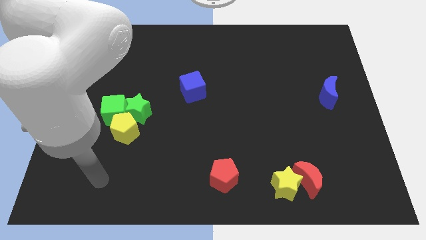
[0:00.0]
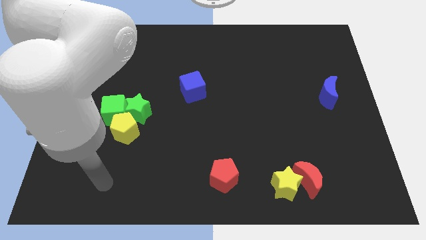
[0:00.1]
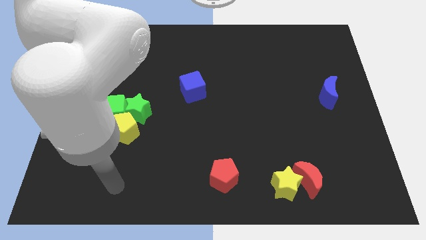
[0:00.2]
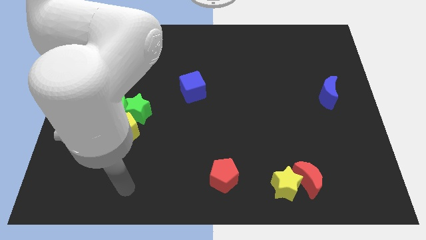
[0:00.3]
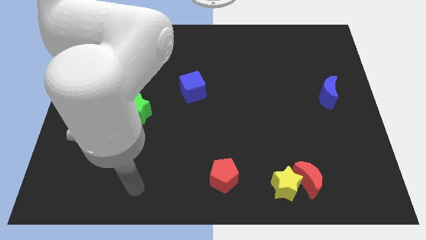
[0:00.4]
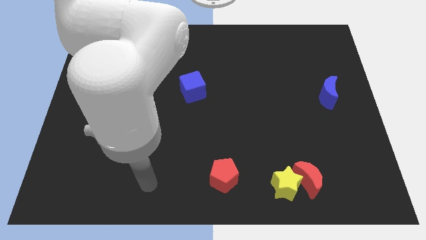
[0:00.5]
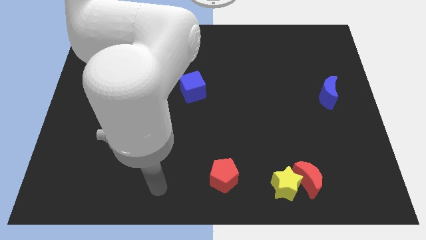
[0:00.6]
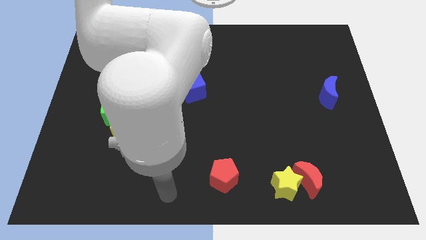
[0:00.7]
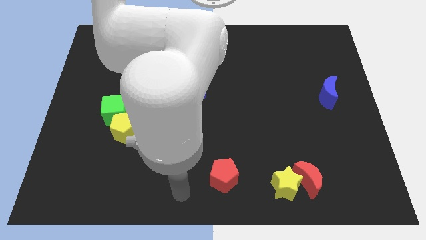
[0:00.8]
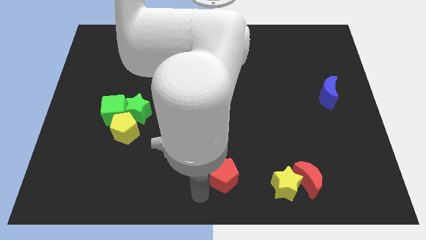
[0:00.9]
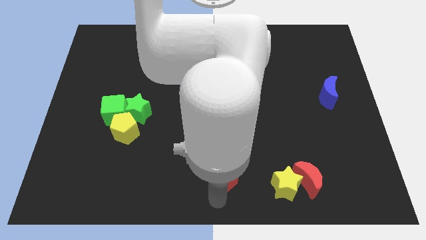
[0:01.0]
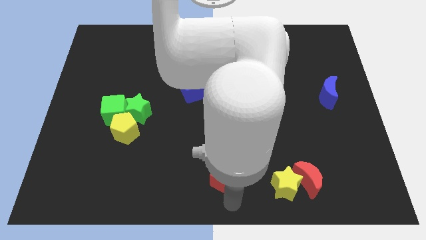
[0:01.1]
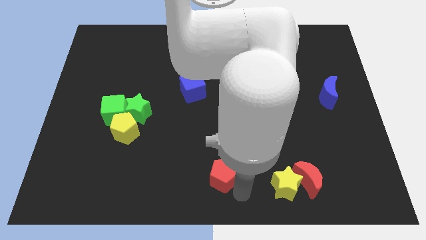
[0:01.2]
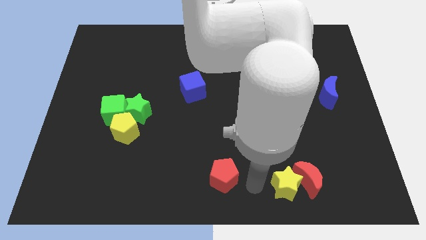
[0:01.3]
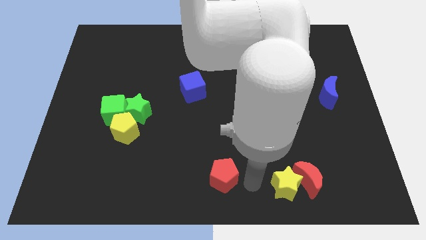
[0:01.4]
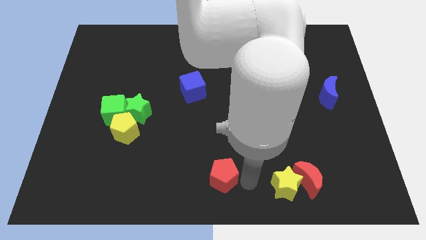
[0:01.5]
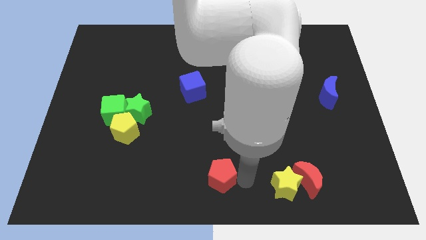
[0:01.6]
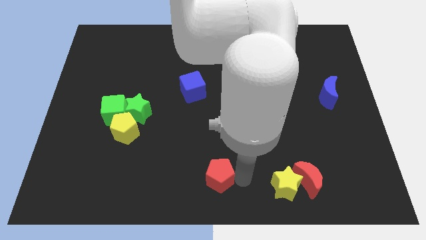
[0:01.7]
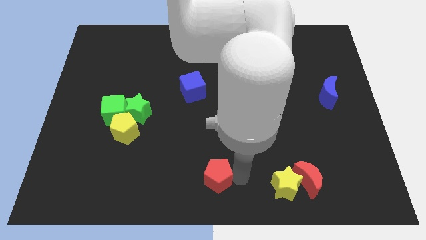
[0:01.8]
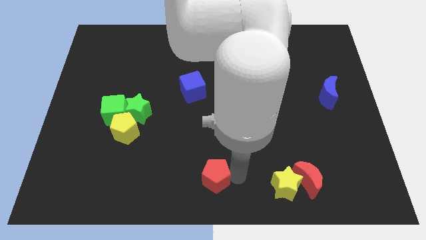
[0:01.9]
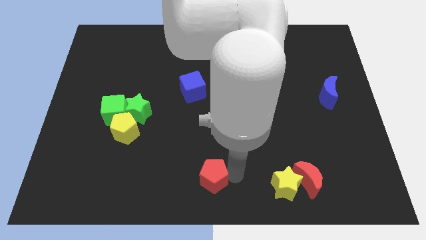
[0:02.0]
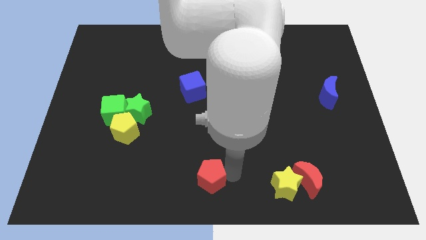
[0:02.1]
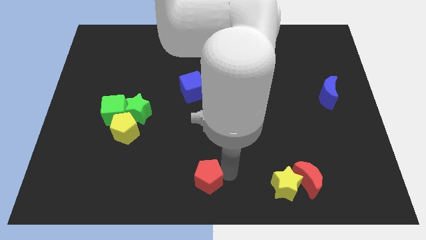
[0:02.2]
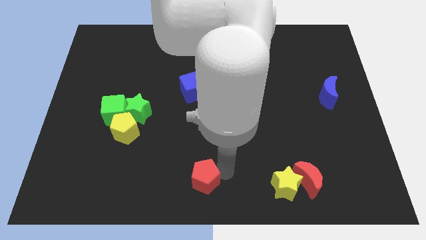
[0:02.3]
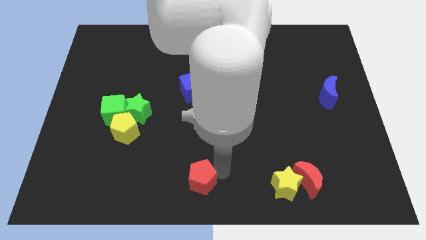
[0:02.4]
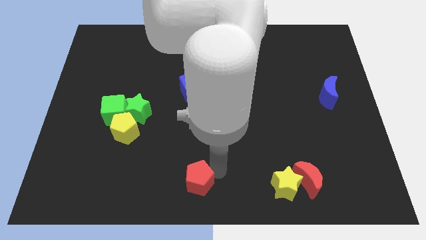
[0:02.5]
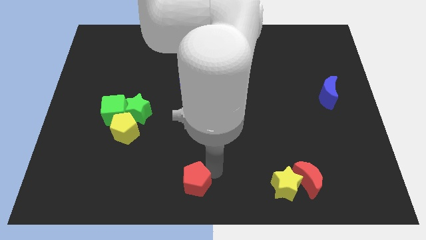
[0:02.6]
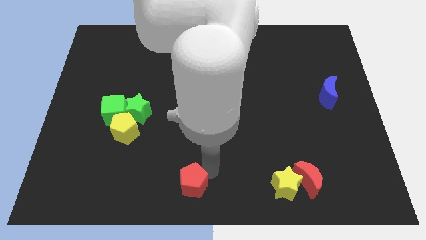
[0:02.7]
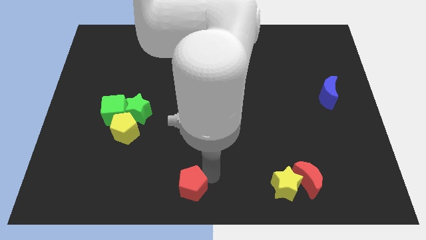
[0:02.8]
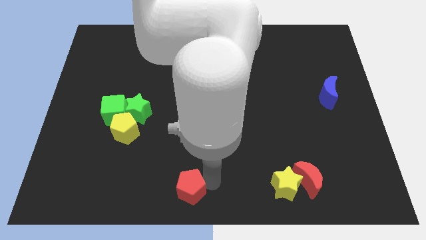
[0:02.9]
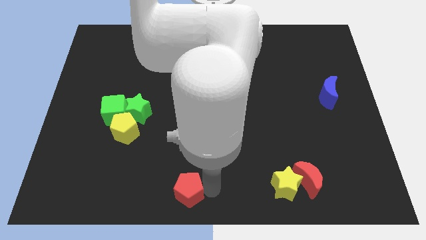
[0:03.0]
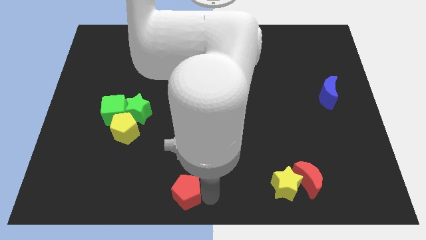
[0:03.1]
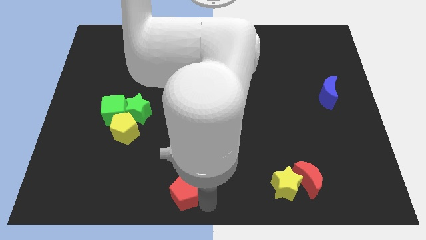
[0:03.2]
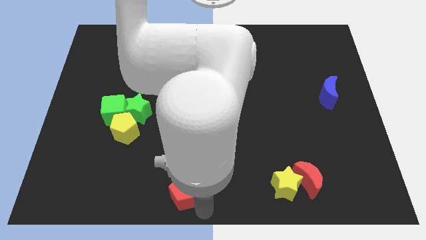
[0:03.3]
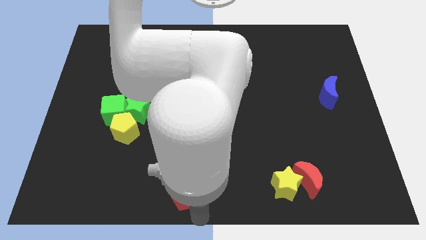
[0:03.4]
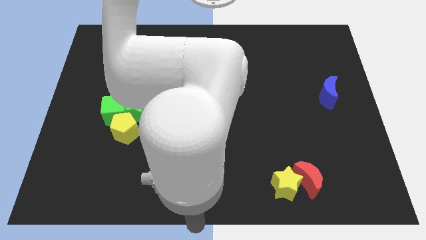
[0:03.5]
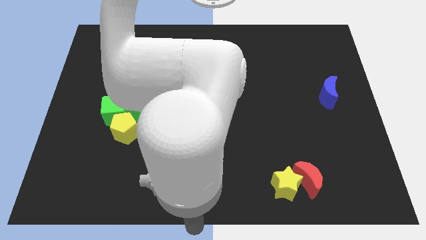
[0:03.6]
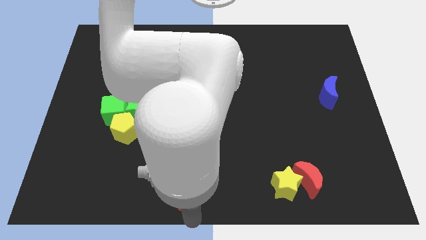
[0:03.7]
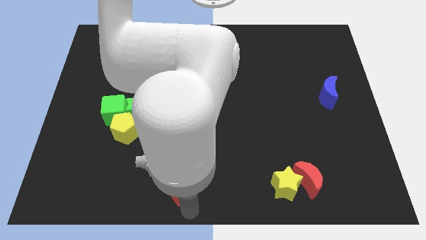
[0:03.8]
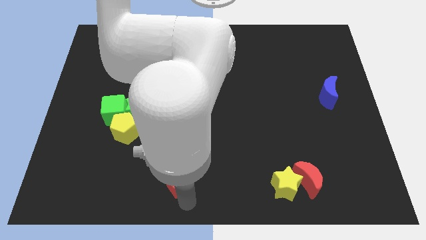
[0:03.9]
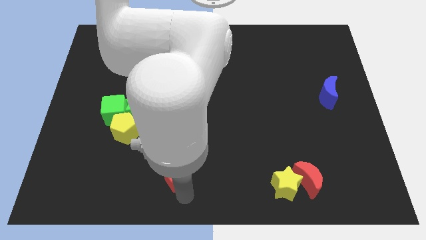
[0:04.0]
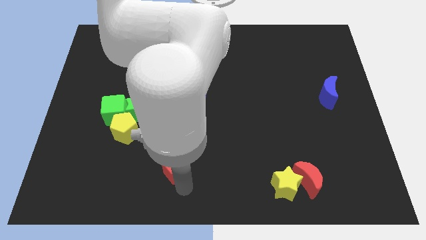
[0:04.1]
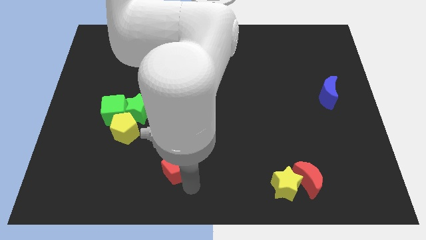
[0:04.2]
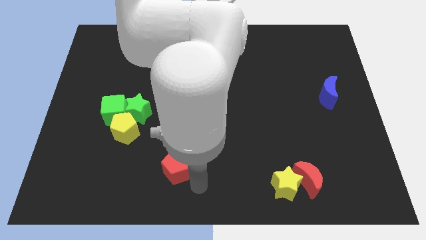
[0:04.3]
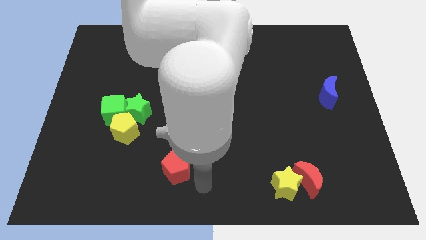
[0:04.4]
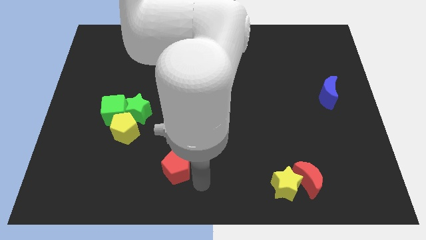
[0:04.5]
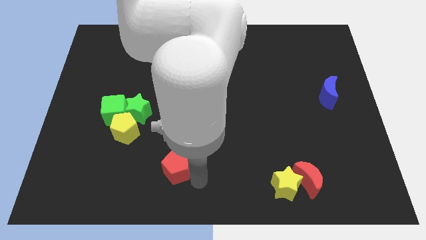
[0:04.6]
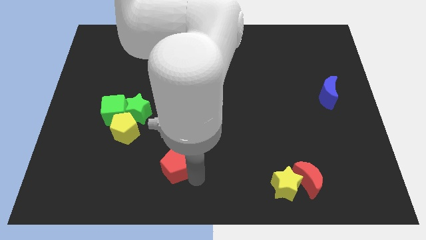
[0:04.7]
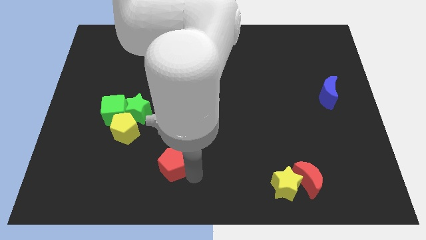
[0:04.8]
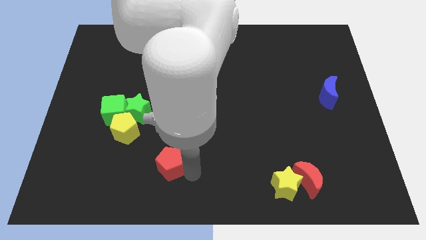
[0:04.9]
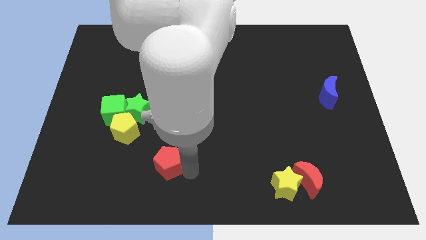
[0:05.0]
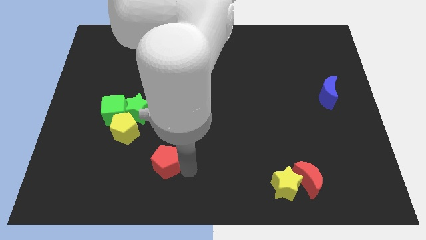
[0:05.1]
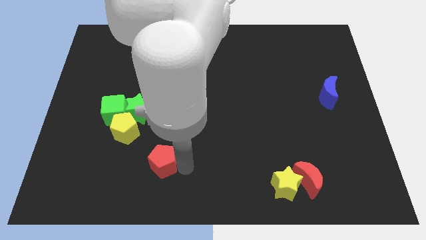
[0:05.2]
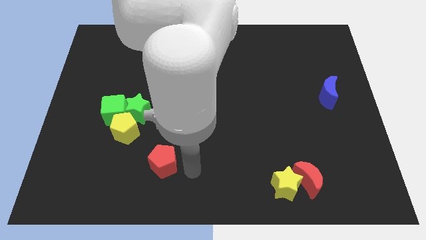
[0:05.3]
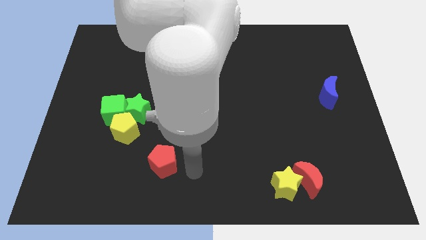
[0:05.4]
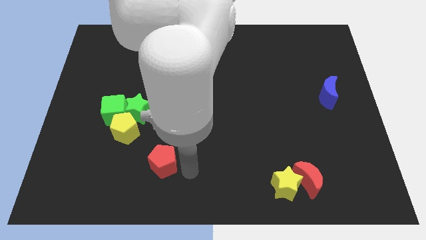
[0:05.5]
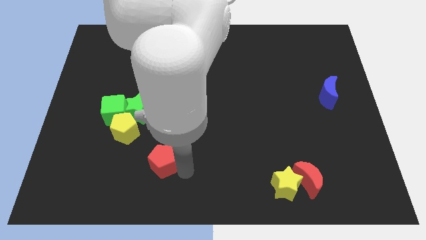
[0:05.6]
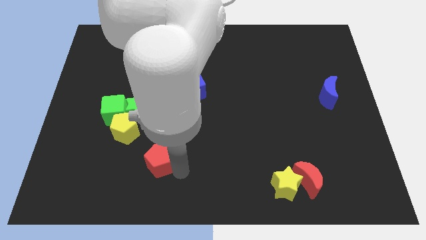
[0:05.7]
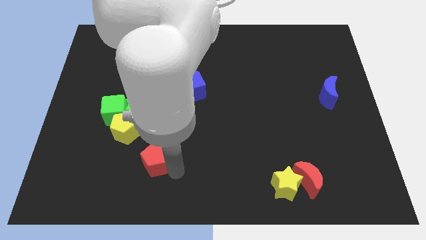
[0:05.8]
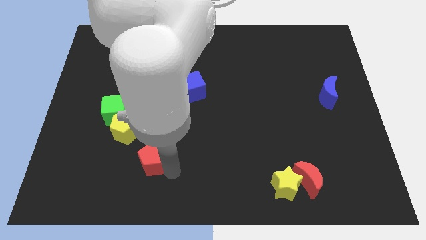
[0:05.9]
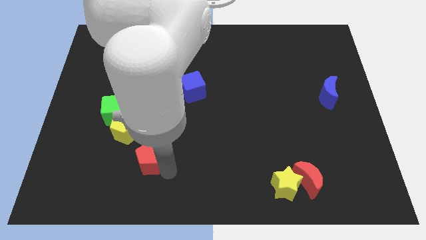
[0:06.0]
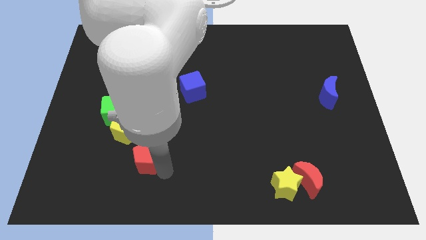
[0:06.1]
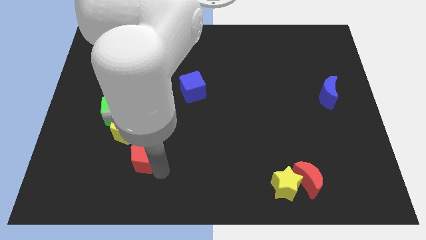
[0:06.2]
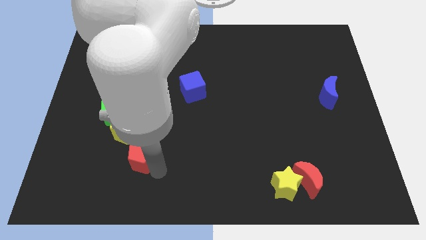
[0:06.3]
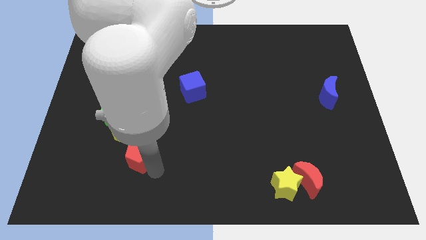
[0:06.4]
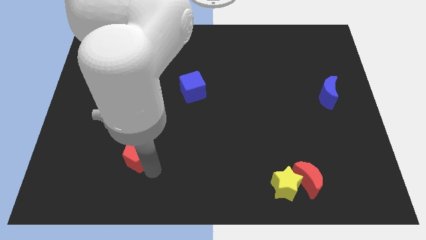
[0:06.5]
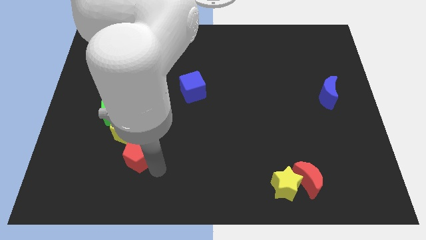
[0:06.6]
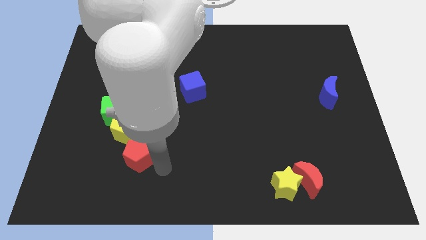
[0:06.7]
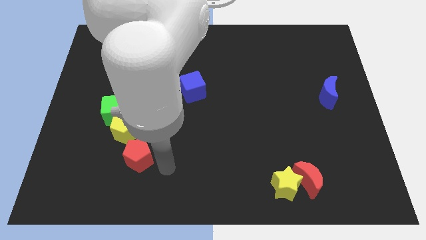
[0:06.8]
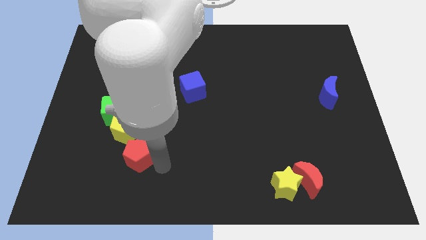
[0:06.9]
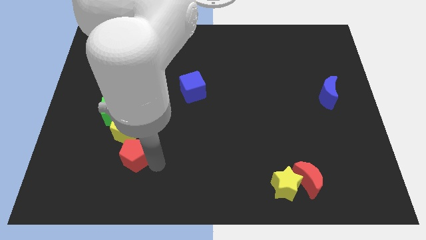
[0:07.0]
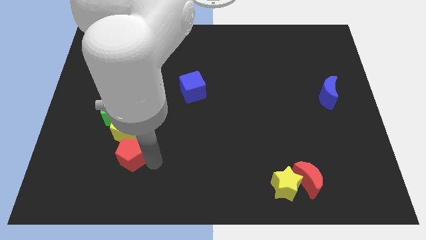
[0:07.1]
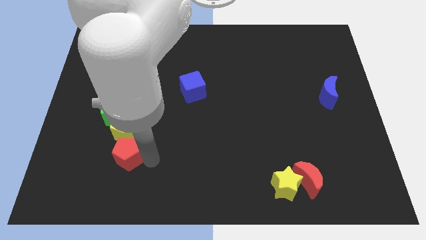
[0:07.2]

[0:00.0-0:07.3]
put the red pentagon to the bottom side of the green cube
